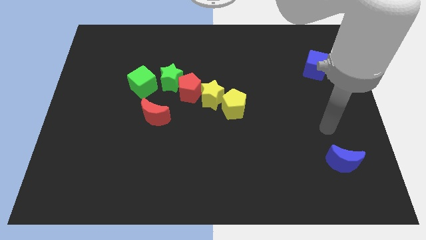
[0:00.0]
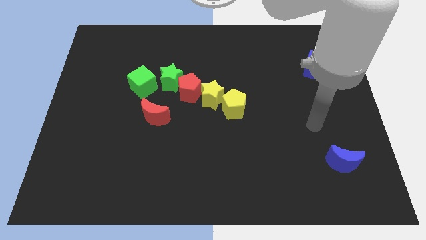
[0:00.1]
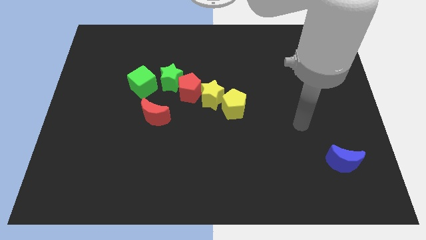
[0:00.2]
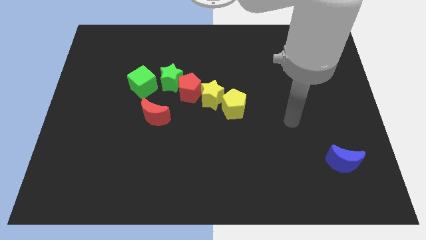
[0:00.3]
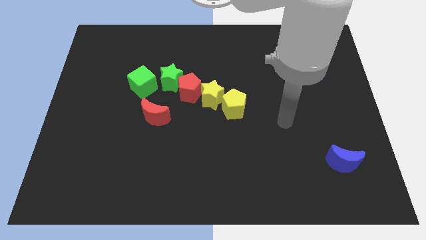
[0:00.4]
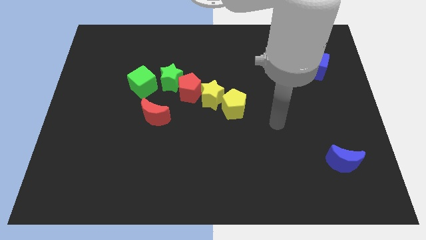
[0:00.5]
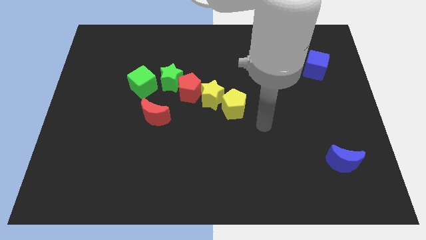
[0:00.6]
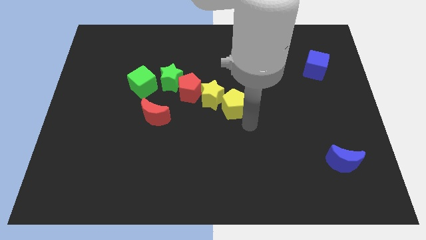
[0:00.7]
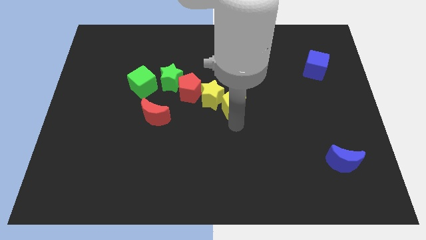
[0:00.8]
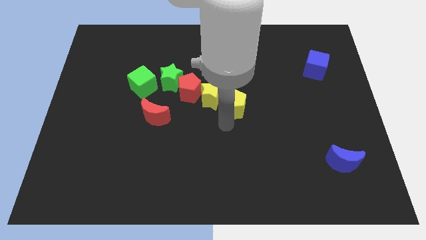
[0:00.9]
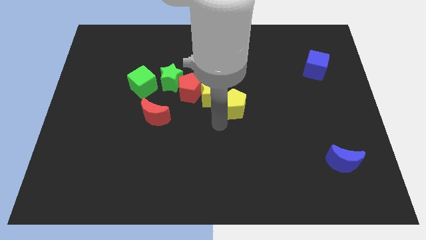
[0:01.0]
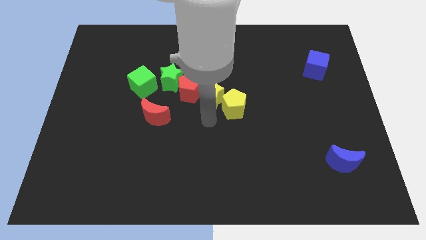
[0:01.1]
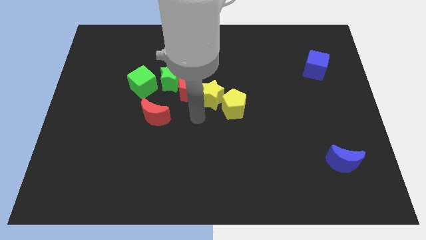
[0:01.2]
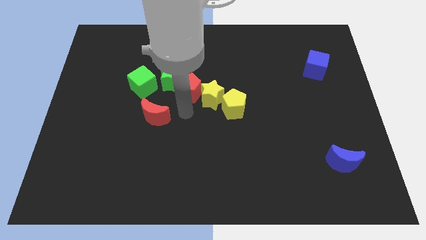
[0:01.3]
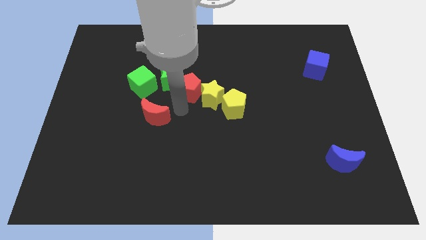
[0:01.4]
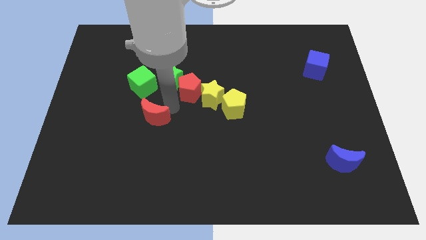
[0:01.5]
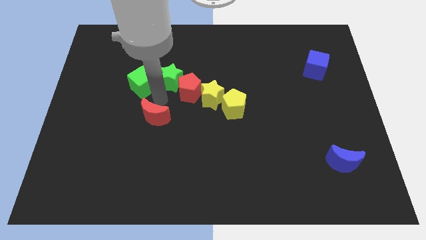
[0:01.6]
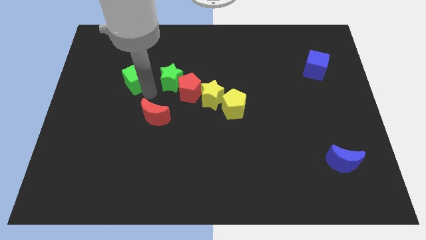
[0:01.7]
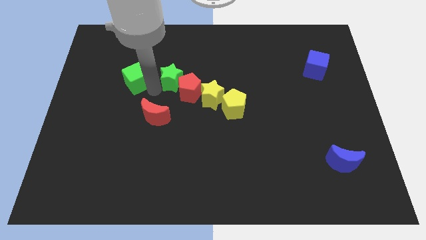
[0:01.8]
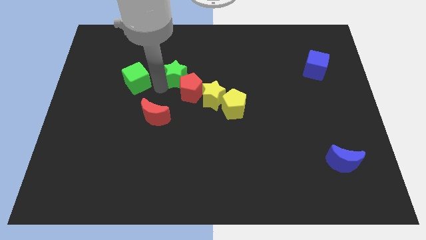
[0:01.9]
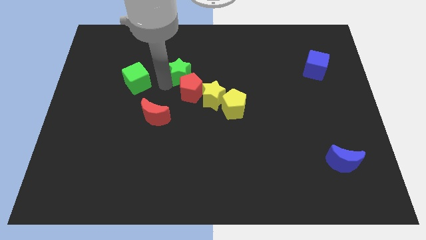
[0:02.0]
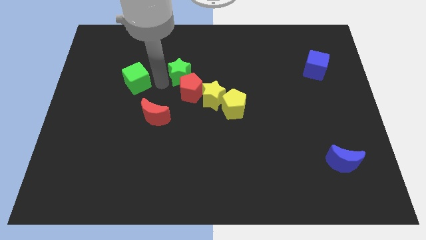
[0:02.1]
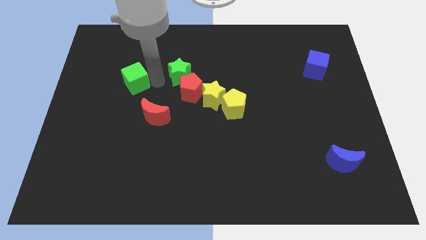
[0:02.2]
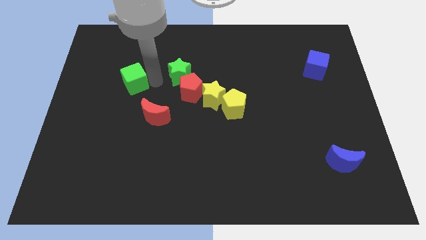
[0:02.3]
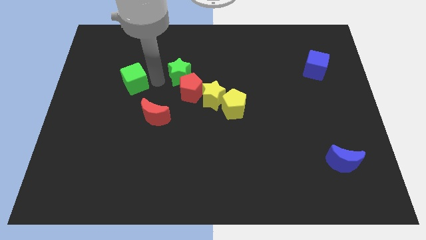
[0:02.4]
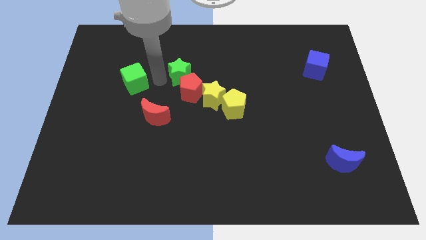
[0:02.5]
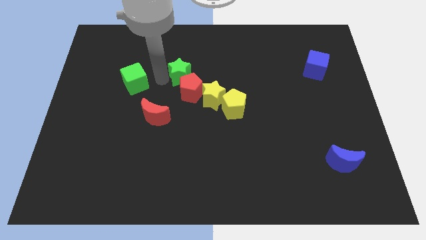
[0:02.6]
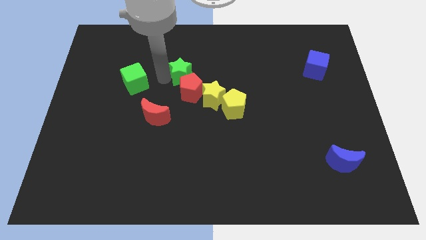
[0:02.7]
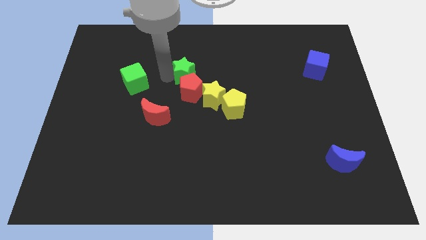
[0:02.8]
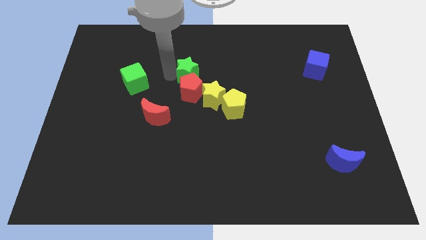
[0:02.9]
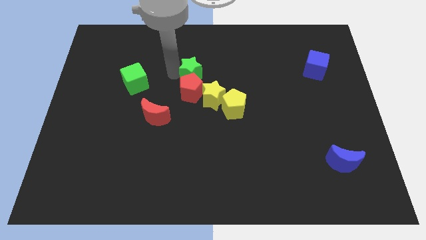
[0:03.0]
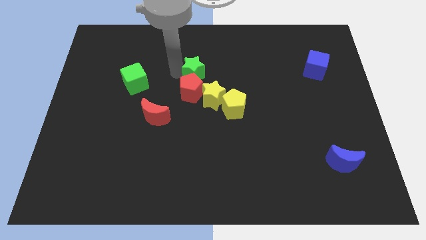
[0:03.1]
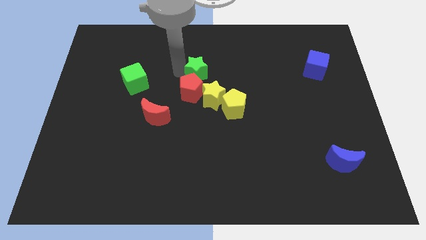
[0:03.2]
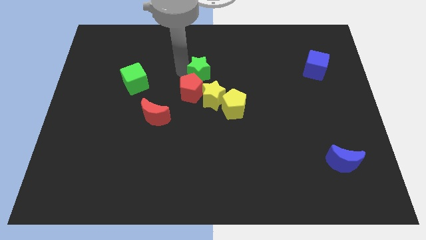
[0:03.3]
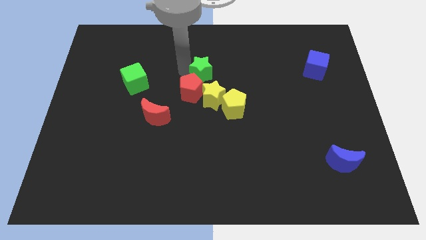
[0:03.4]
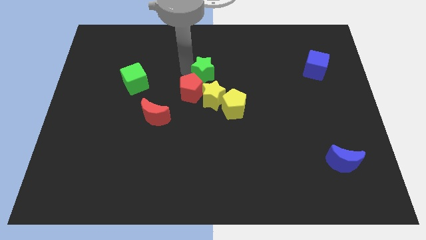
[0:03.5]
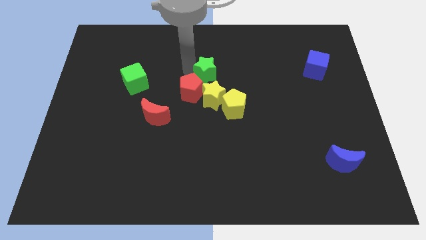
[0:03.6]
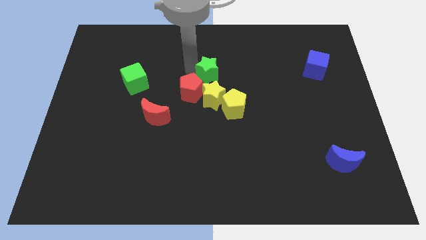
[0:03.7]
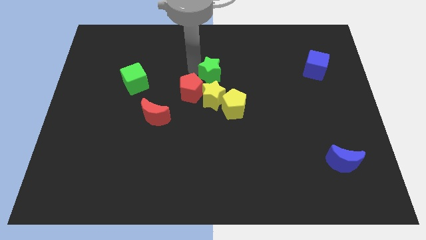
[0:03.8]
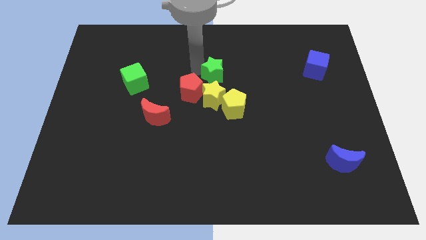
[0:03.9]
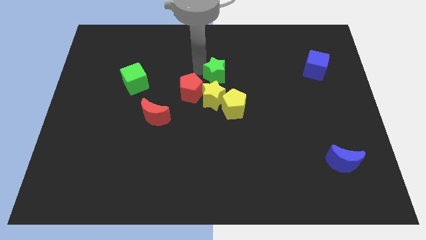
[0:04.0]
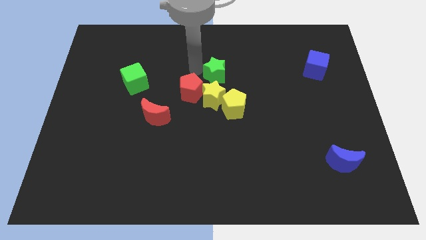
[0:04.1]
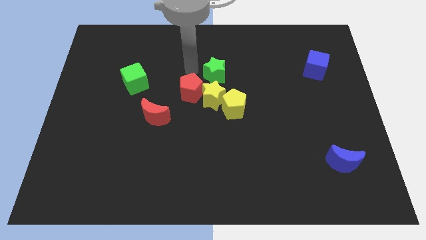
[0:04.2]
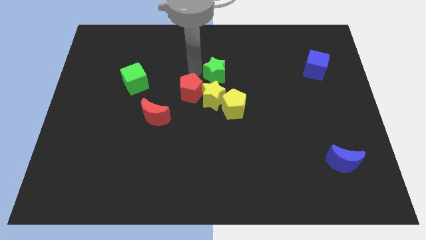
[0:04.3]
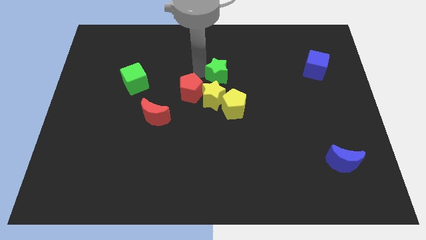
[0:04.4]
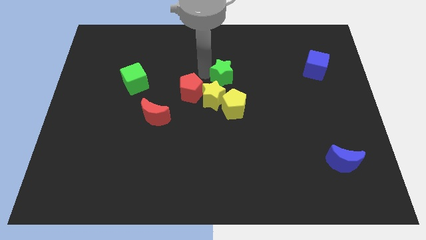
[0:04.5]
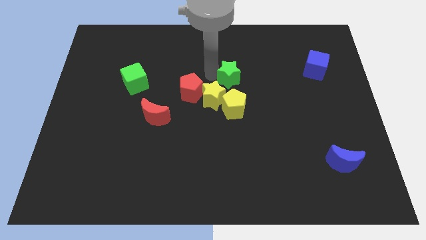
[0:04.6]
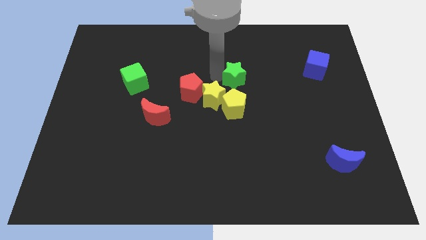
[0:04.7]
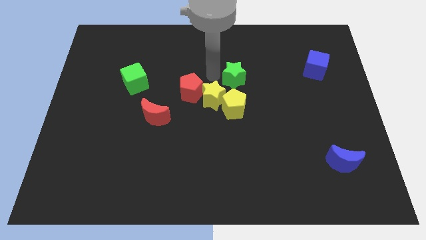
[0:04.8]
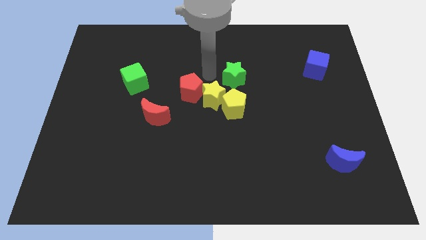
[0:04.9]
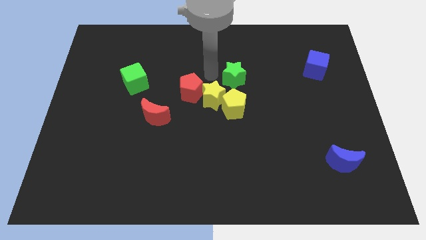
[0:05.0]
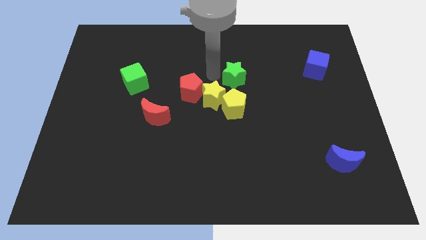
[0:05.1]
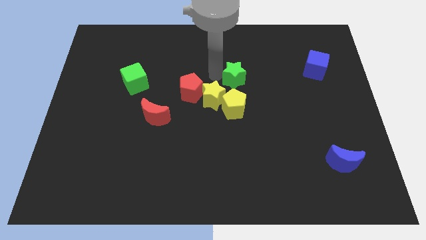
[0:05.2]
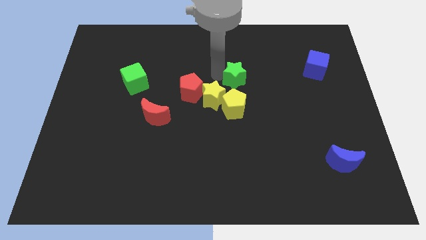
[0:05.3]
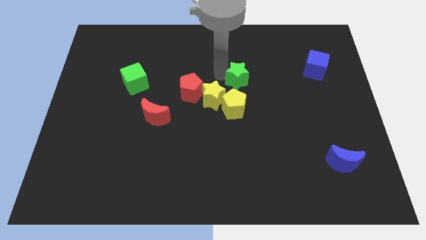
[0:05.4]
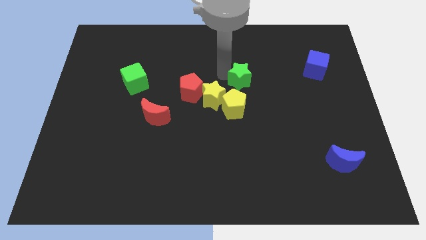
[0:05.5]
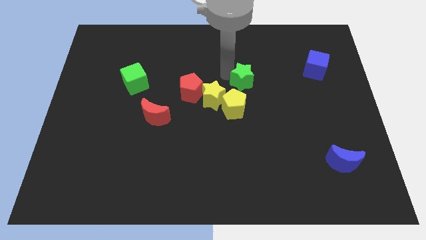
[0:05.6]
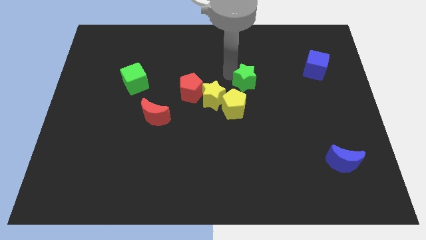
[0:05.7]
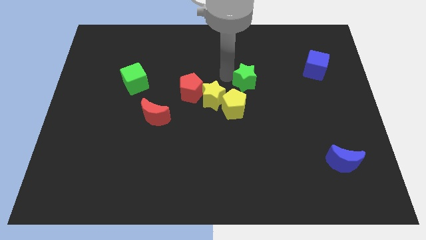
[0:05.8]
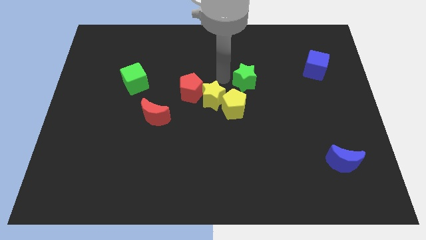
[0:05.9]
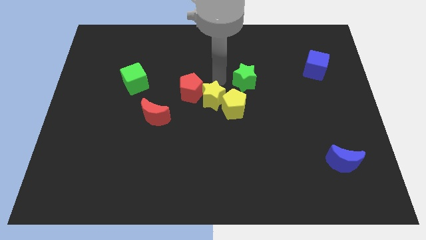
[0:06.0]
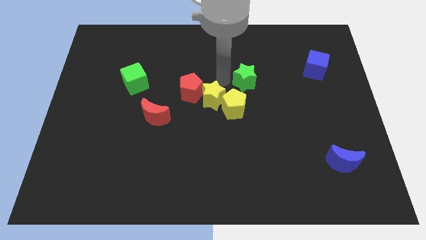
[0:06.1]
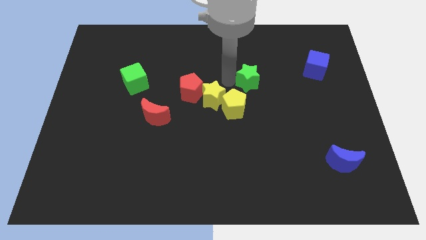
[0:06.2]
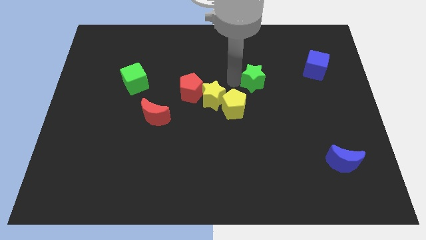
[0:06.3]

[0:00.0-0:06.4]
push the green star right

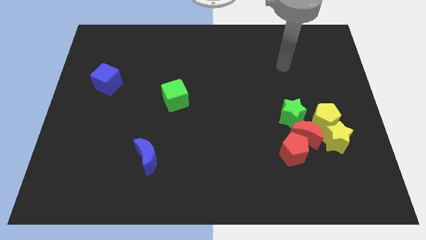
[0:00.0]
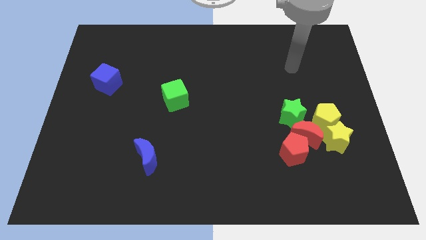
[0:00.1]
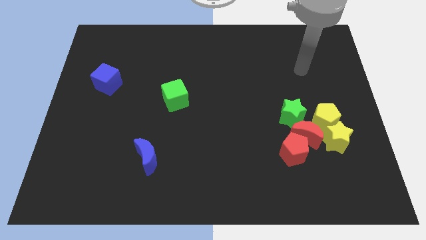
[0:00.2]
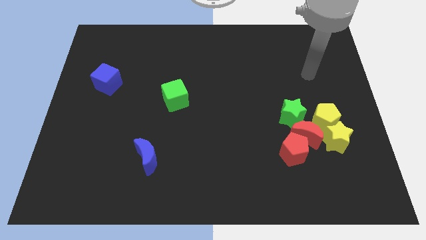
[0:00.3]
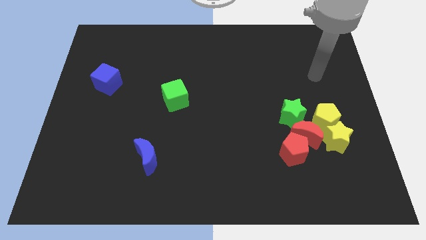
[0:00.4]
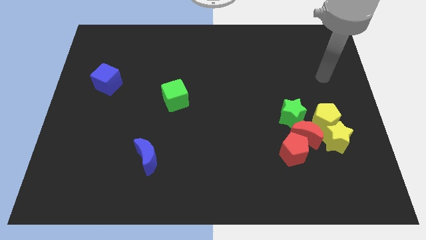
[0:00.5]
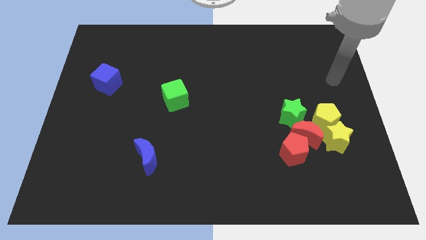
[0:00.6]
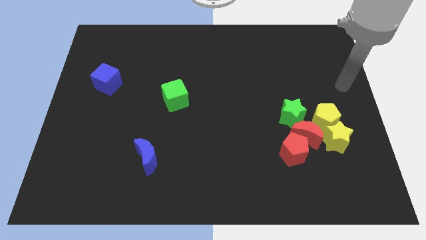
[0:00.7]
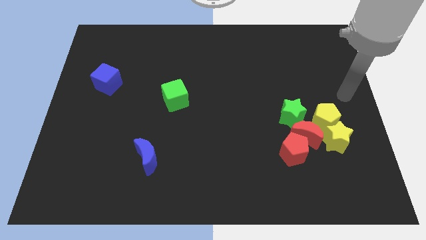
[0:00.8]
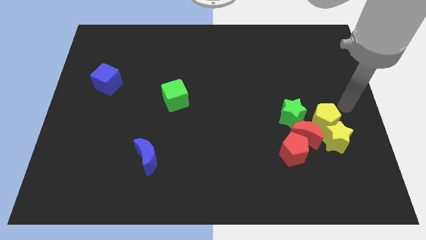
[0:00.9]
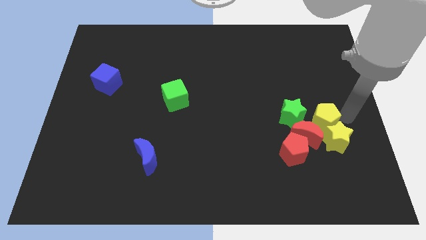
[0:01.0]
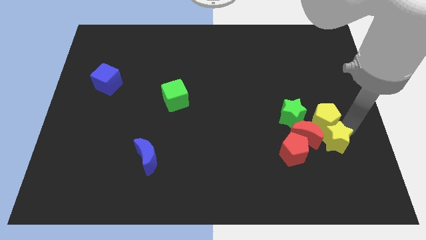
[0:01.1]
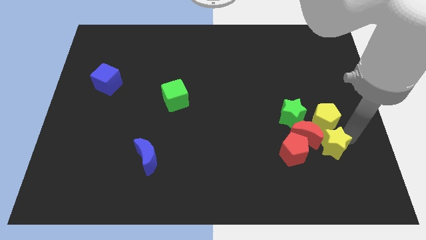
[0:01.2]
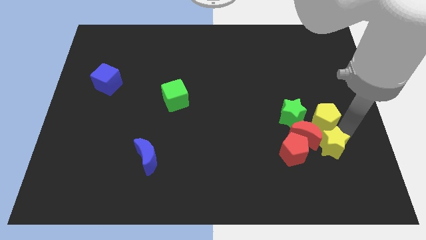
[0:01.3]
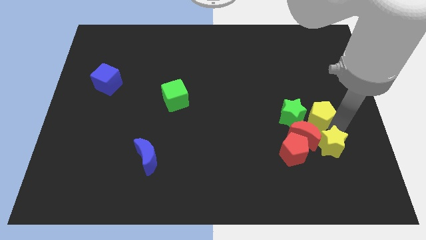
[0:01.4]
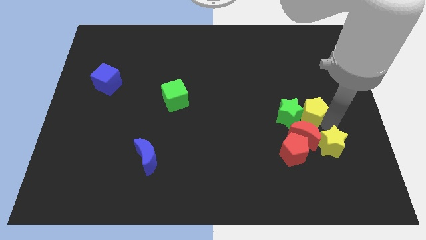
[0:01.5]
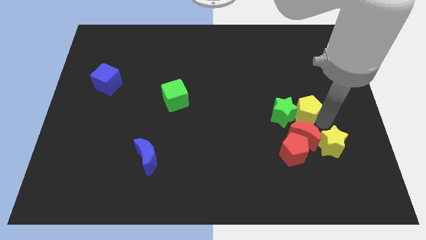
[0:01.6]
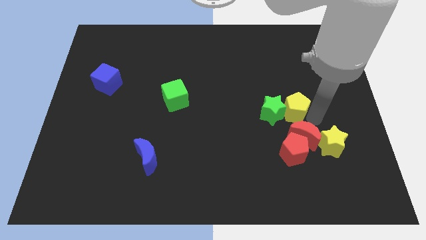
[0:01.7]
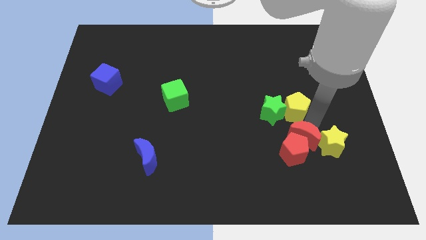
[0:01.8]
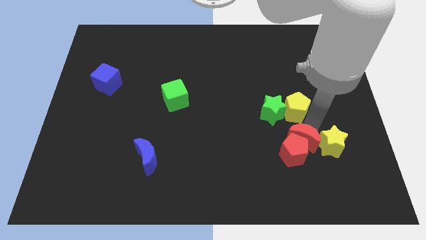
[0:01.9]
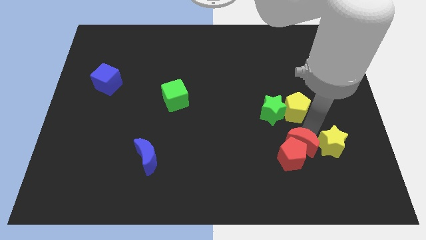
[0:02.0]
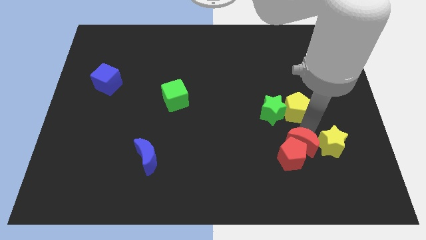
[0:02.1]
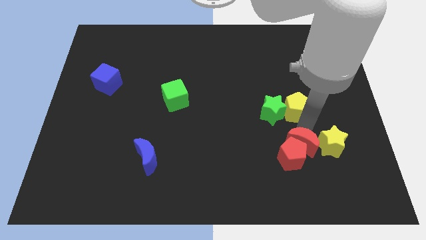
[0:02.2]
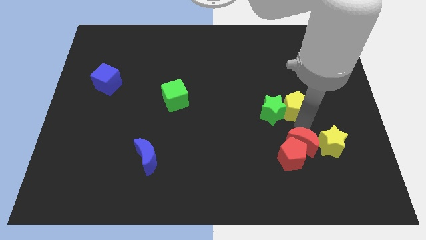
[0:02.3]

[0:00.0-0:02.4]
slightly move the yellow pentagon up and to the left
